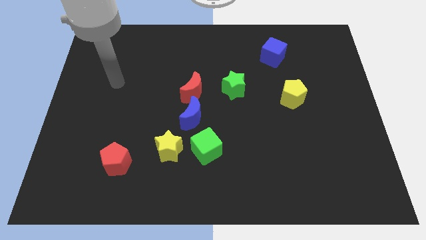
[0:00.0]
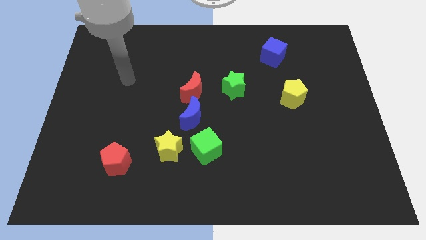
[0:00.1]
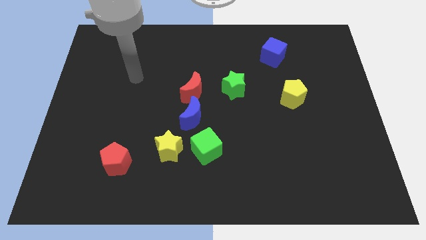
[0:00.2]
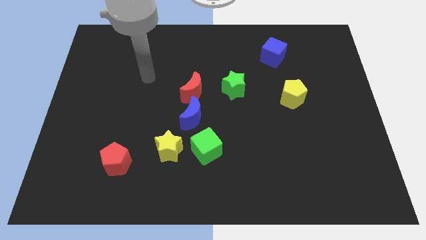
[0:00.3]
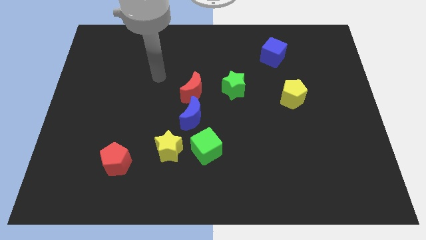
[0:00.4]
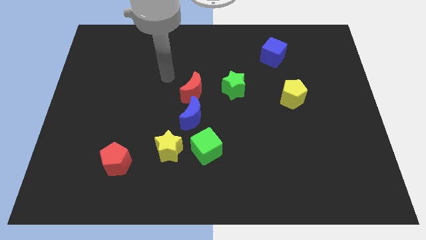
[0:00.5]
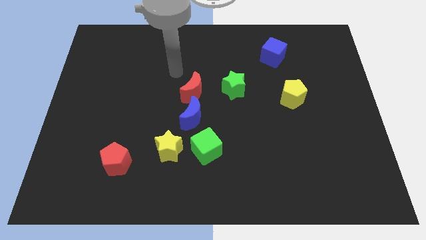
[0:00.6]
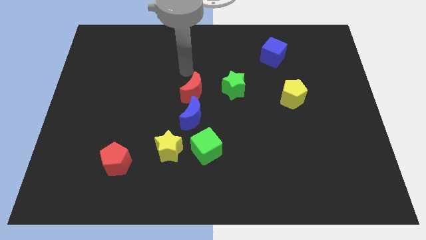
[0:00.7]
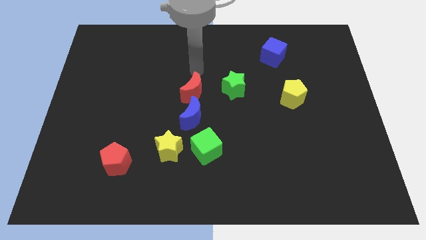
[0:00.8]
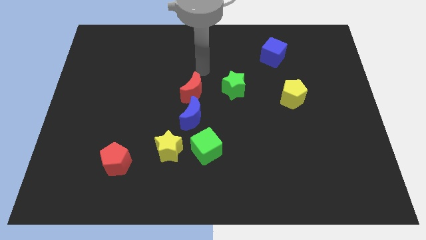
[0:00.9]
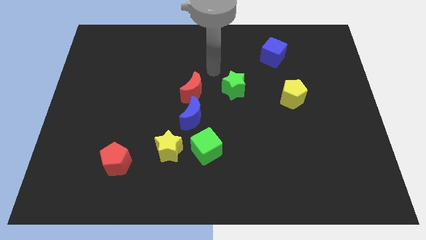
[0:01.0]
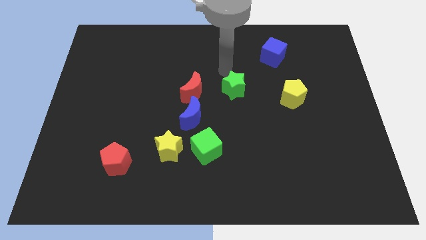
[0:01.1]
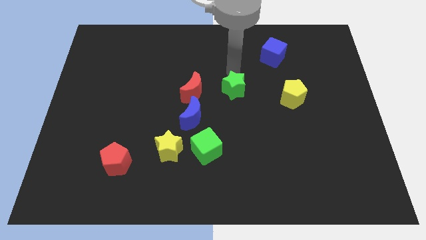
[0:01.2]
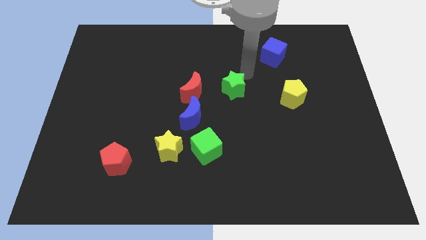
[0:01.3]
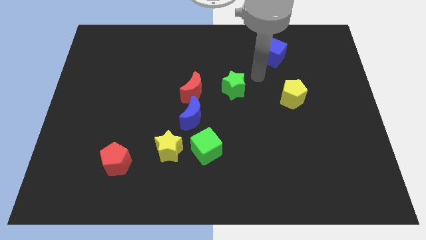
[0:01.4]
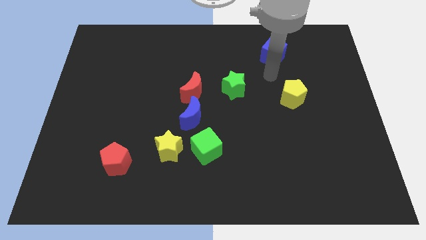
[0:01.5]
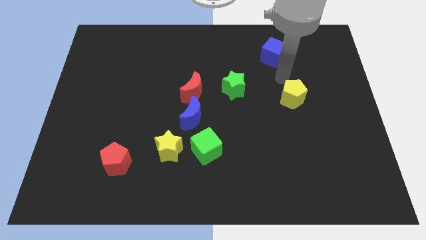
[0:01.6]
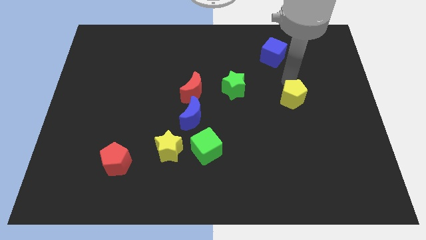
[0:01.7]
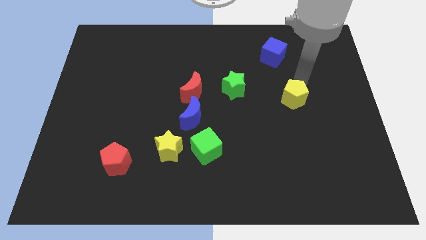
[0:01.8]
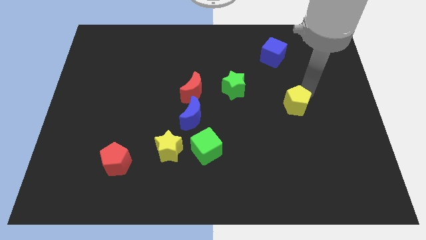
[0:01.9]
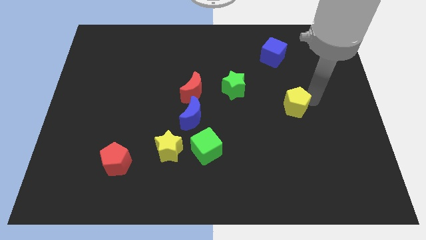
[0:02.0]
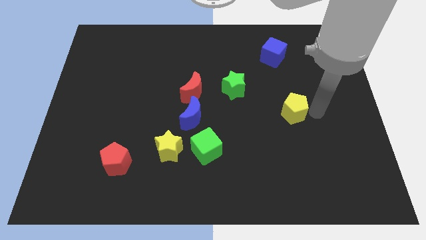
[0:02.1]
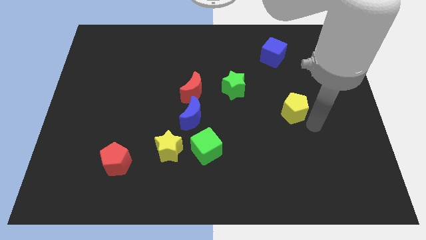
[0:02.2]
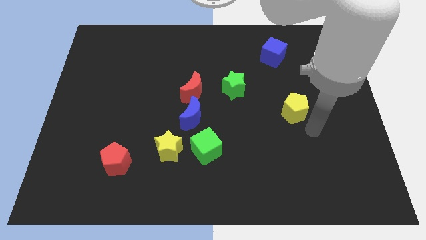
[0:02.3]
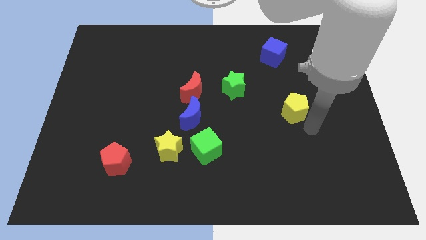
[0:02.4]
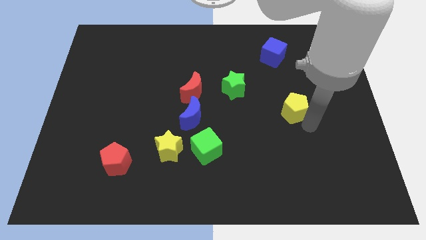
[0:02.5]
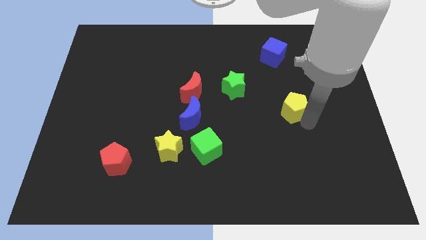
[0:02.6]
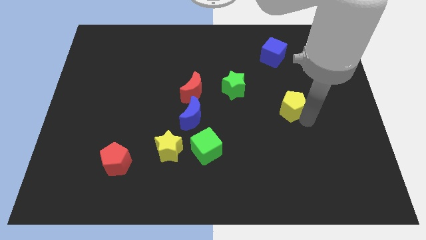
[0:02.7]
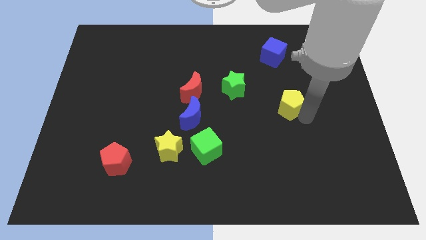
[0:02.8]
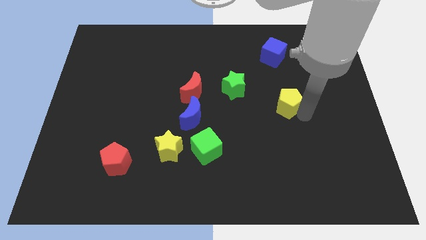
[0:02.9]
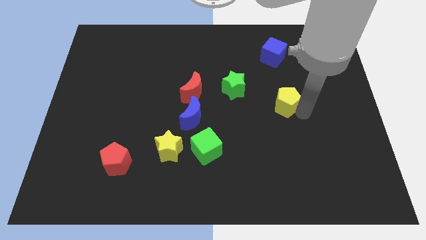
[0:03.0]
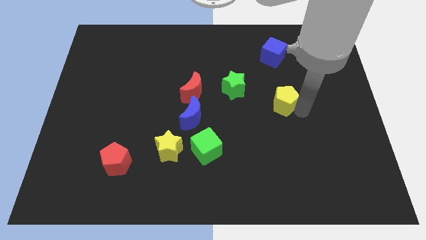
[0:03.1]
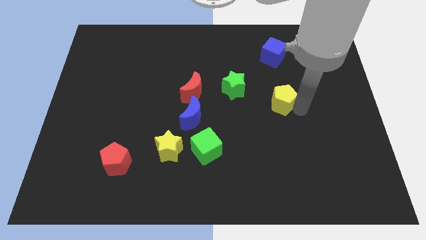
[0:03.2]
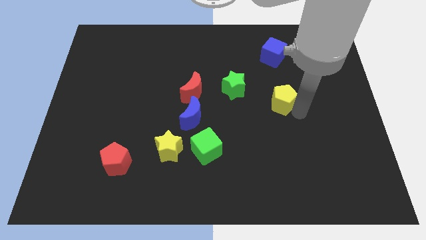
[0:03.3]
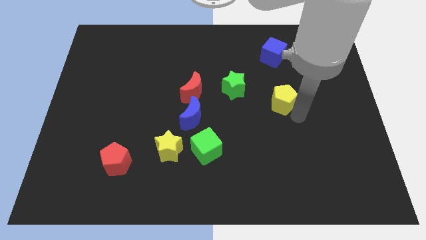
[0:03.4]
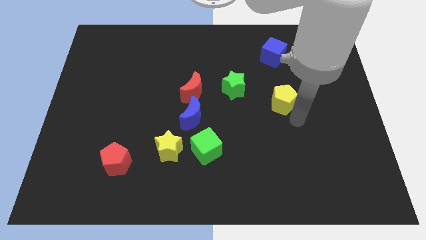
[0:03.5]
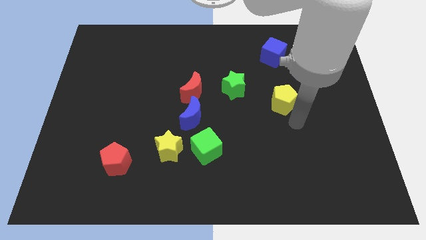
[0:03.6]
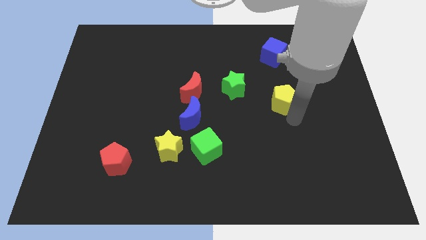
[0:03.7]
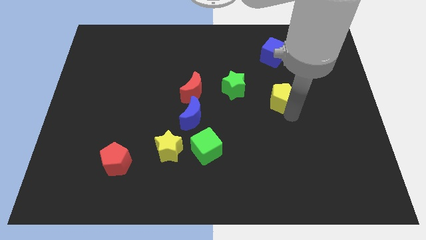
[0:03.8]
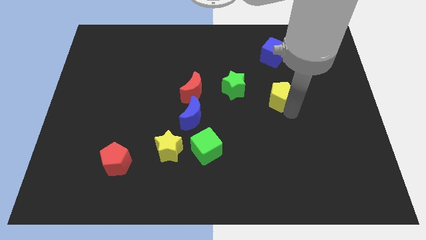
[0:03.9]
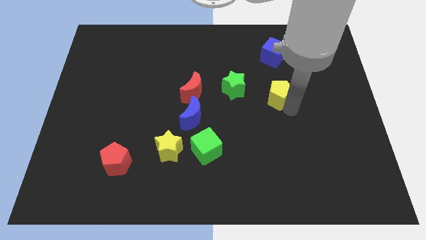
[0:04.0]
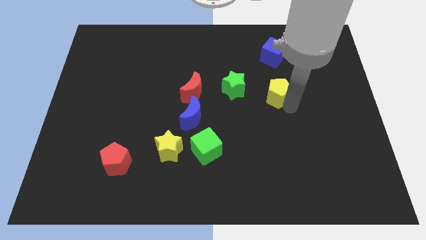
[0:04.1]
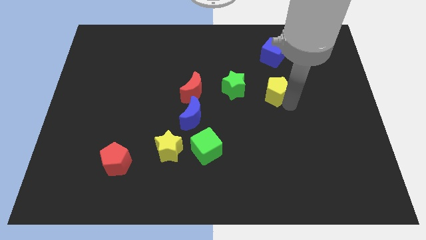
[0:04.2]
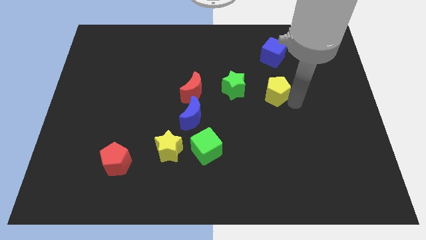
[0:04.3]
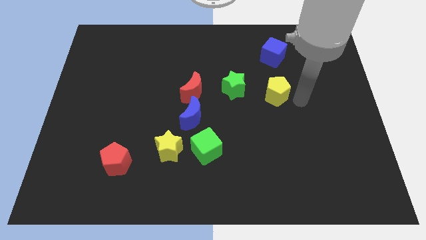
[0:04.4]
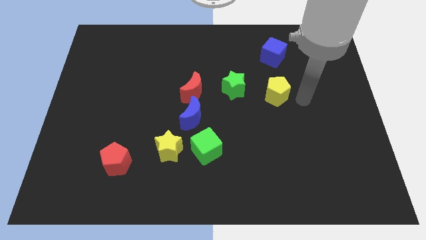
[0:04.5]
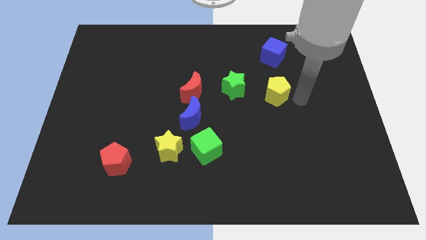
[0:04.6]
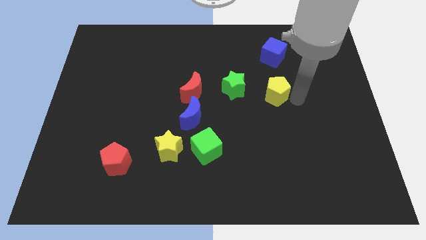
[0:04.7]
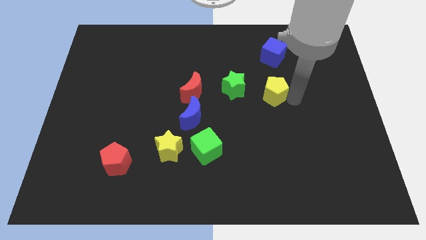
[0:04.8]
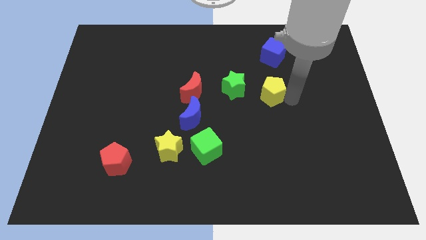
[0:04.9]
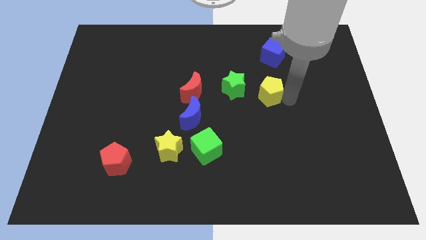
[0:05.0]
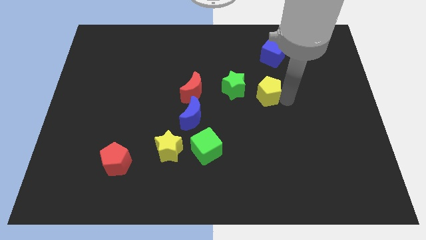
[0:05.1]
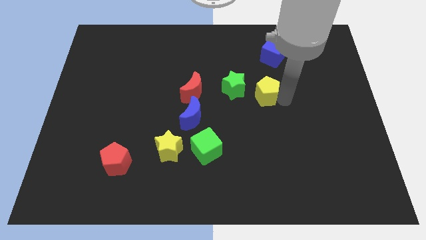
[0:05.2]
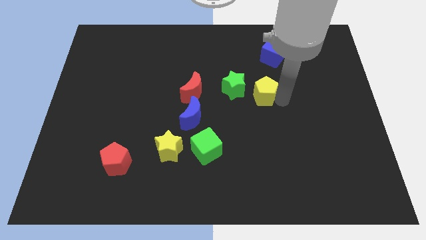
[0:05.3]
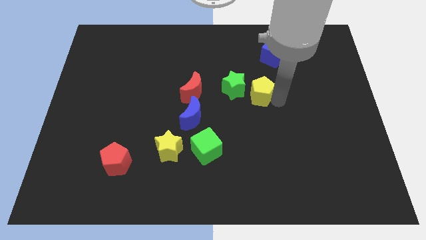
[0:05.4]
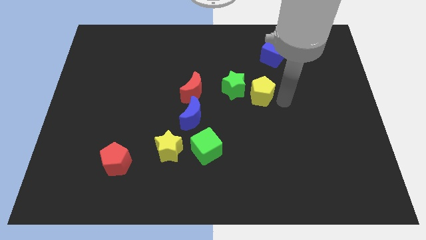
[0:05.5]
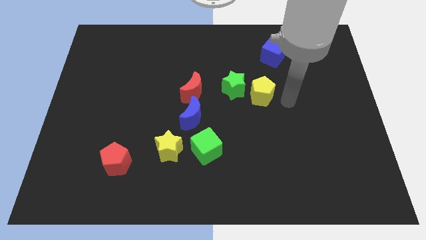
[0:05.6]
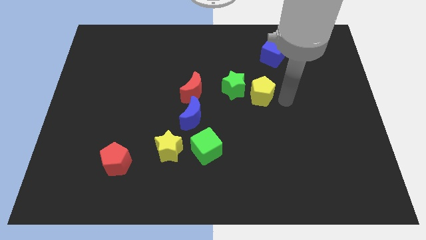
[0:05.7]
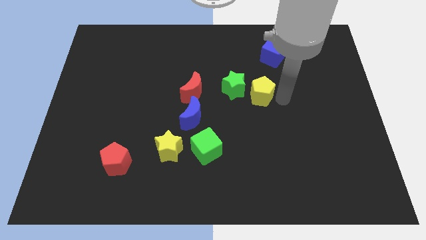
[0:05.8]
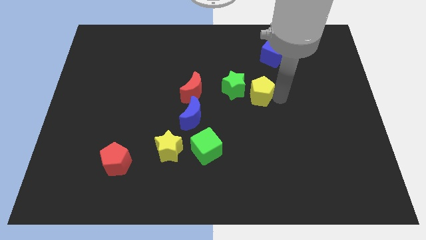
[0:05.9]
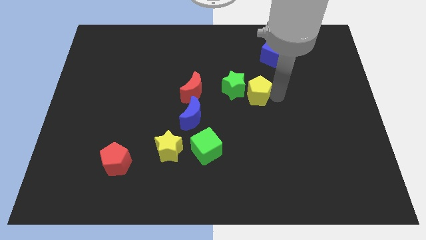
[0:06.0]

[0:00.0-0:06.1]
put the yellow pentagon close to the green star

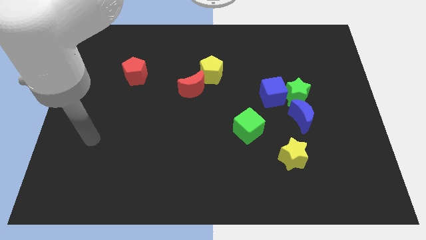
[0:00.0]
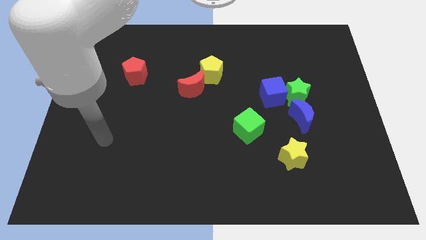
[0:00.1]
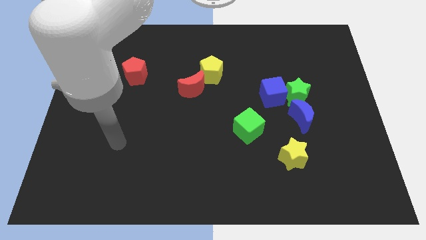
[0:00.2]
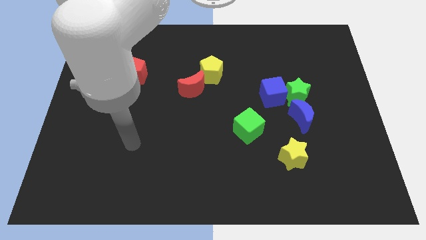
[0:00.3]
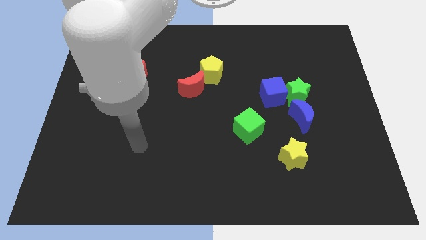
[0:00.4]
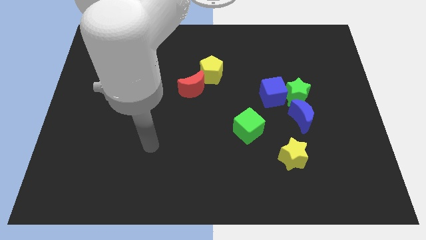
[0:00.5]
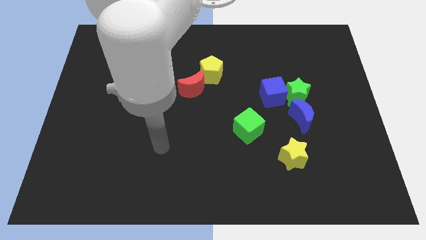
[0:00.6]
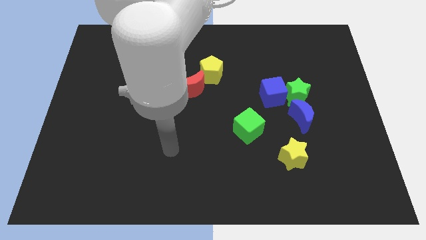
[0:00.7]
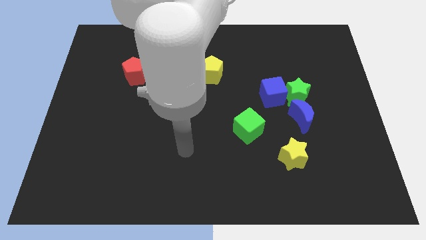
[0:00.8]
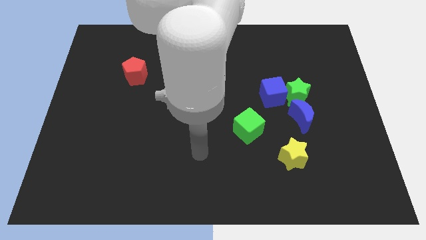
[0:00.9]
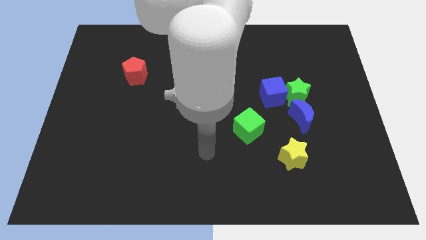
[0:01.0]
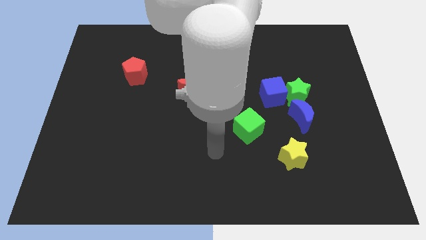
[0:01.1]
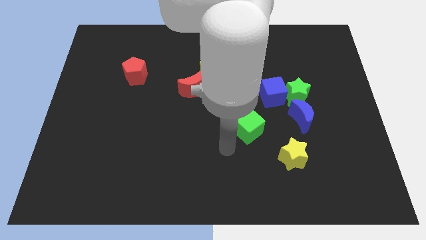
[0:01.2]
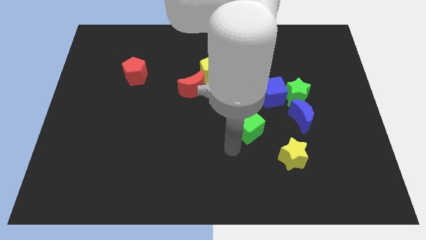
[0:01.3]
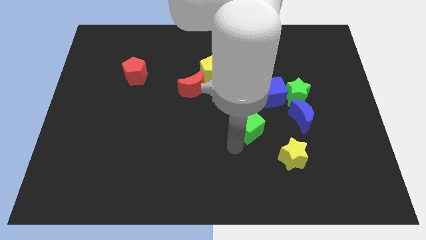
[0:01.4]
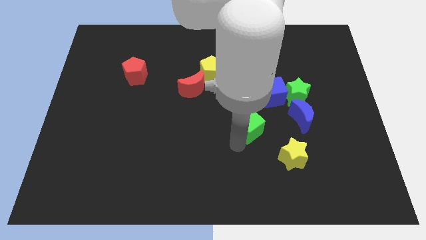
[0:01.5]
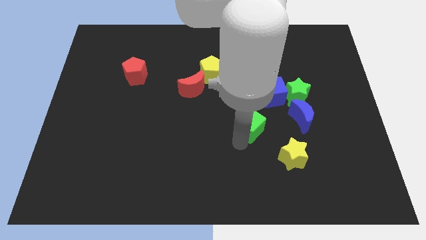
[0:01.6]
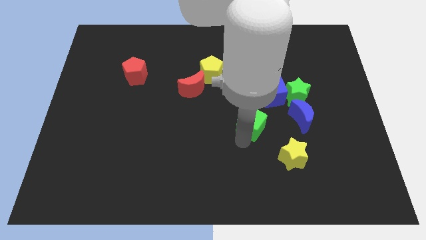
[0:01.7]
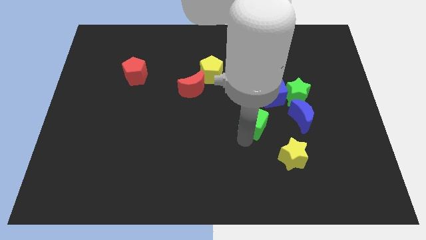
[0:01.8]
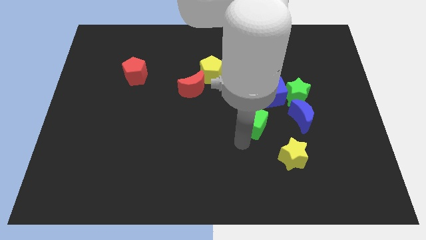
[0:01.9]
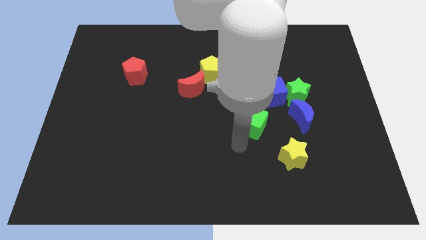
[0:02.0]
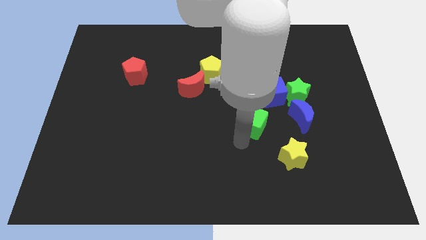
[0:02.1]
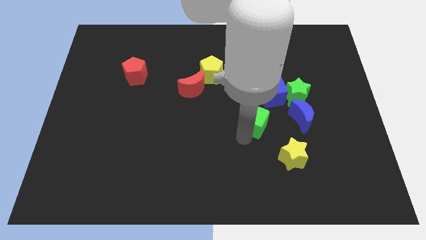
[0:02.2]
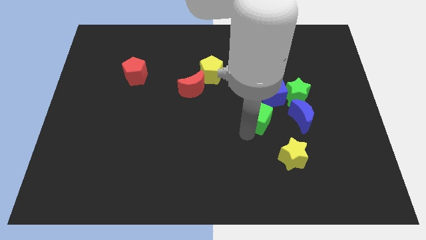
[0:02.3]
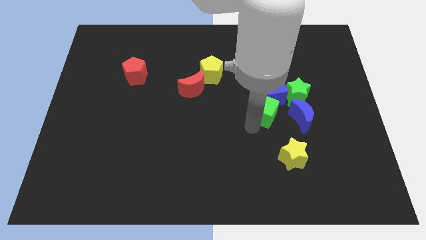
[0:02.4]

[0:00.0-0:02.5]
push the green cube close to the blue cube
